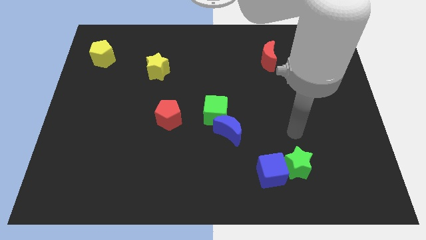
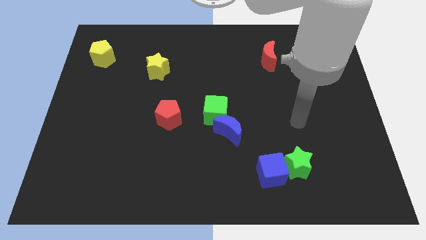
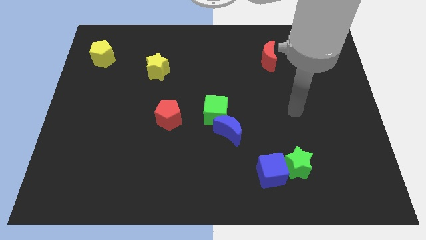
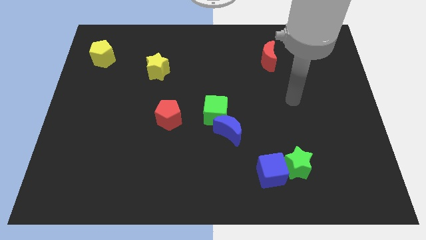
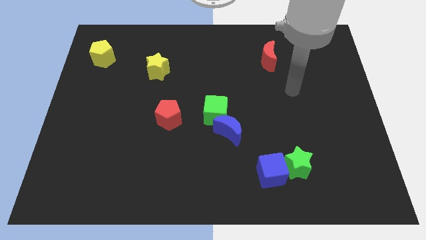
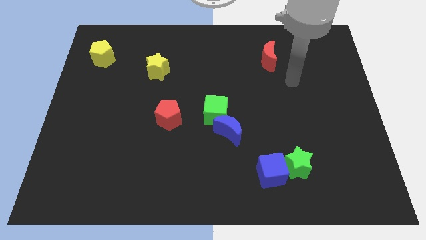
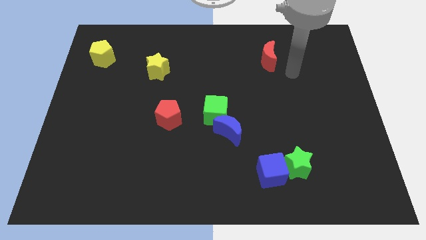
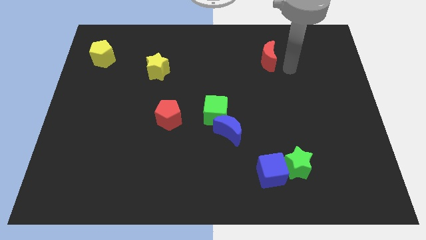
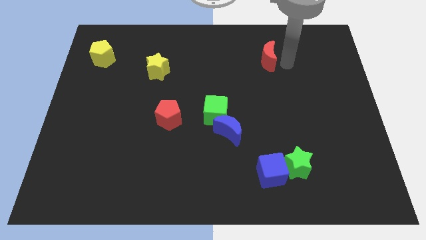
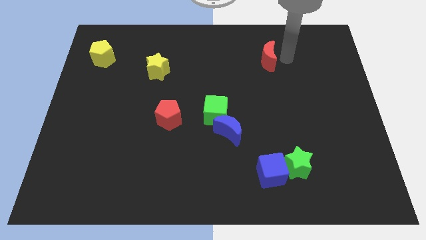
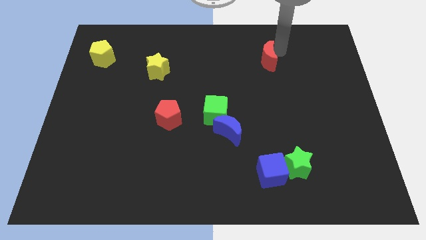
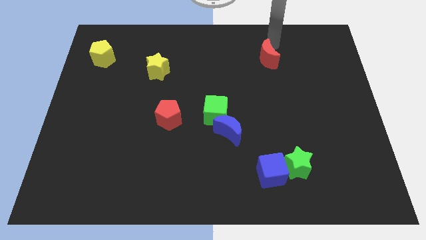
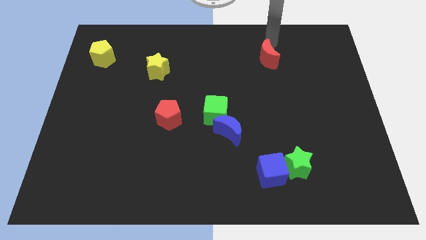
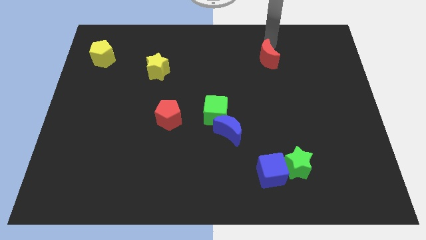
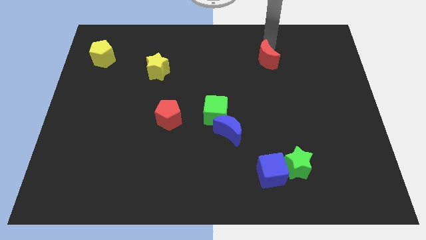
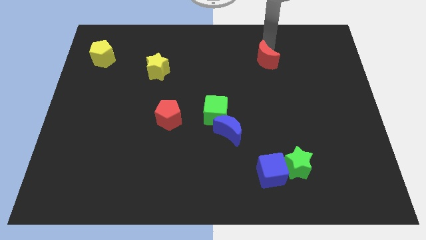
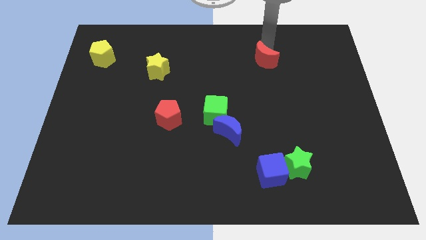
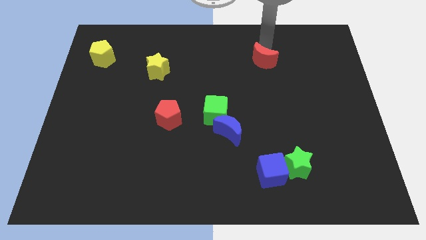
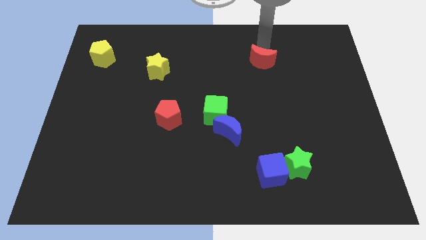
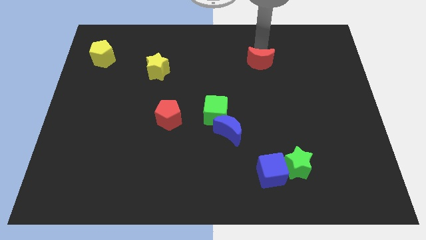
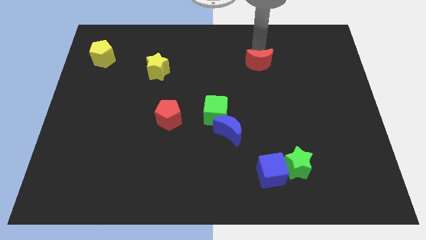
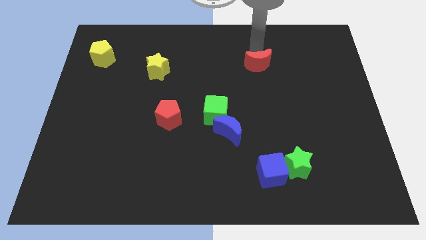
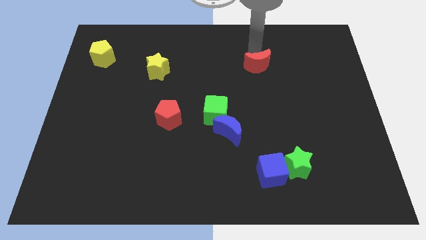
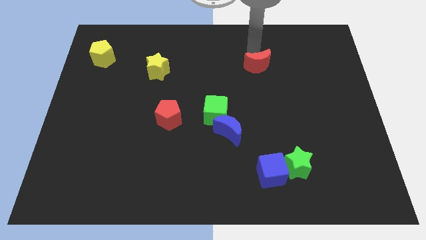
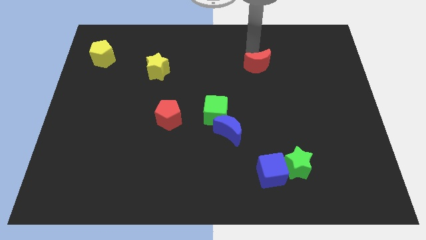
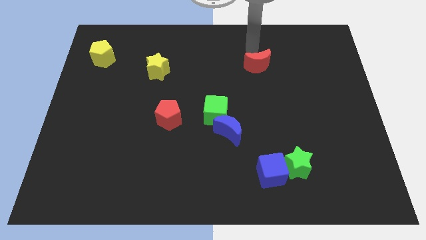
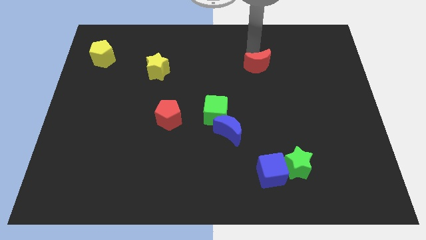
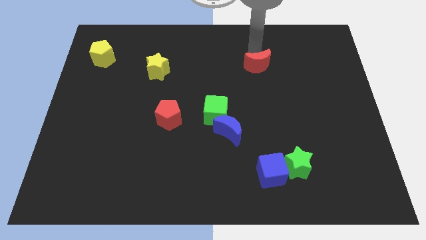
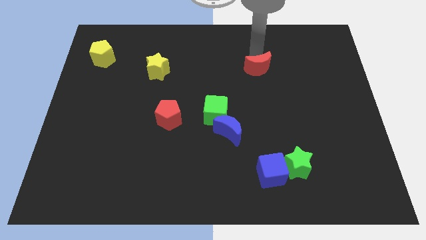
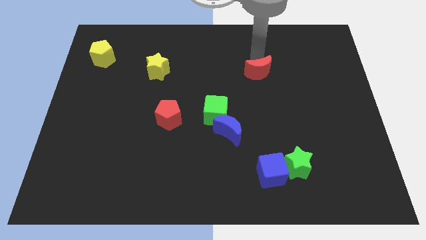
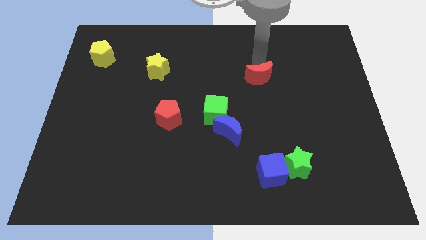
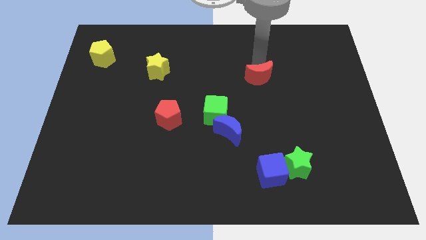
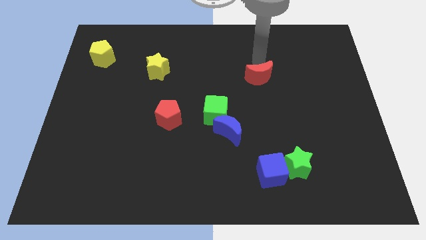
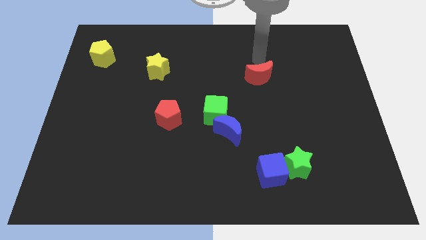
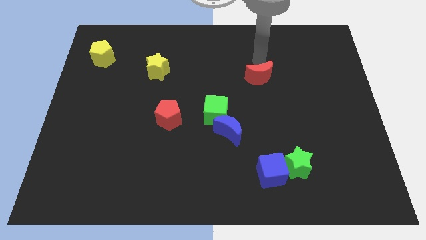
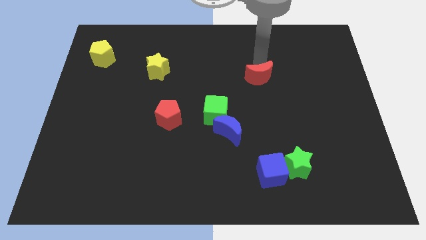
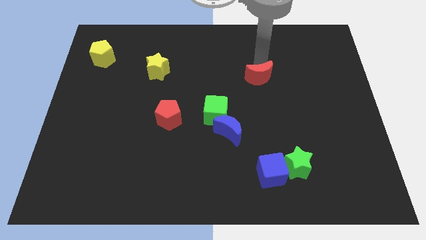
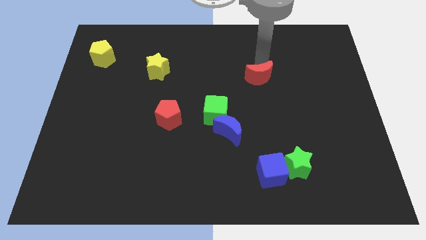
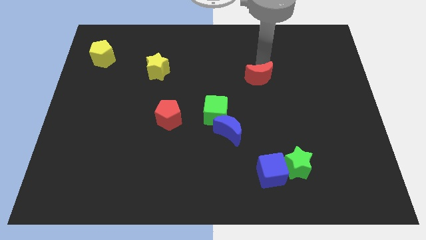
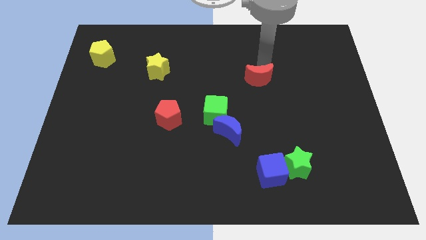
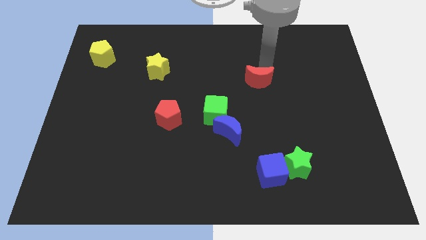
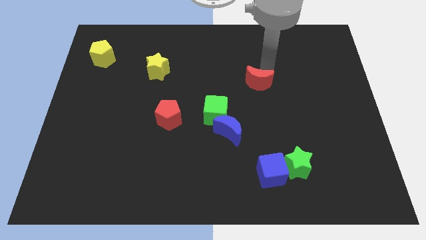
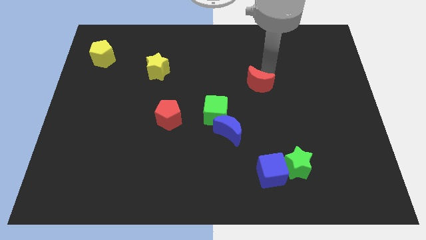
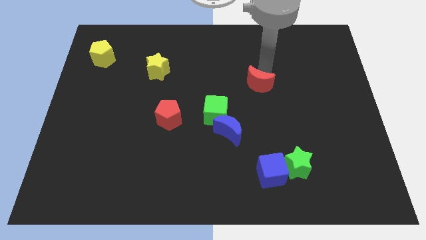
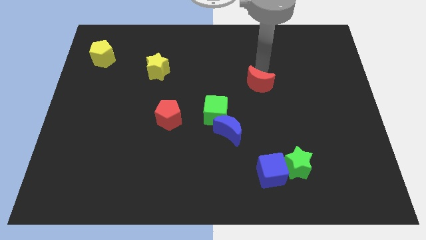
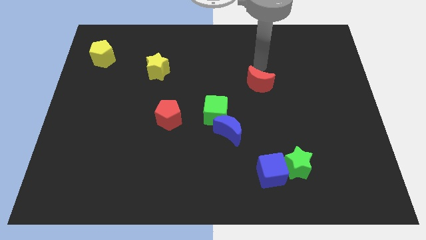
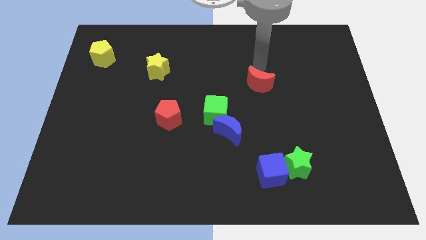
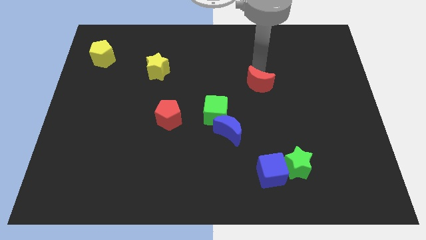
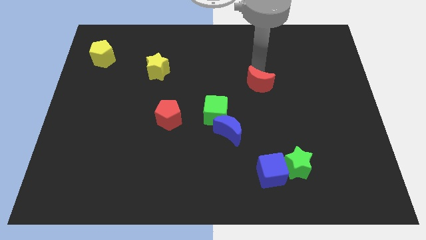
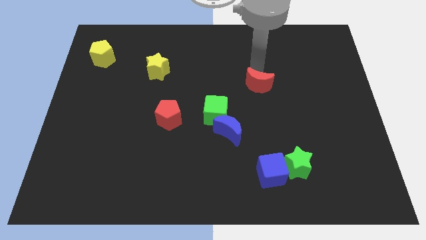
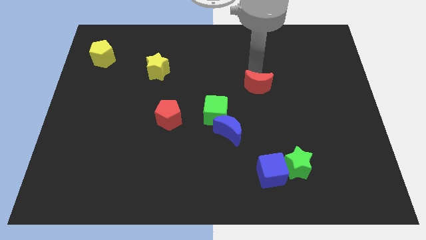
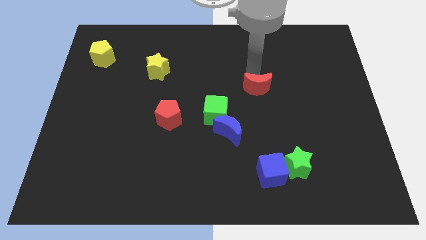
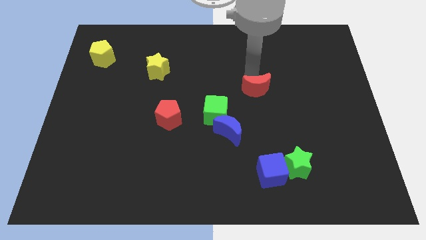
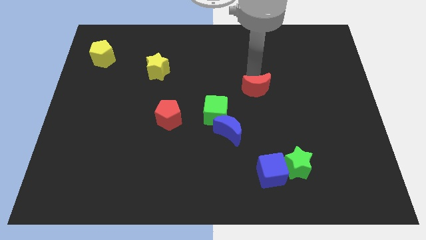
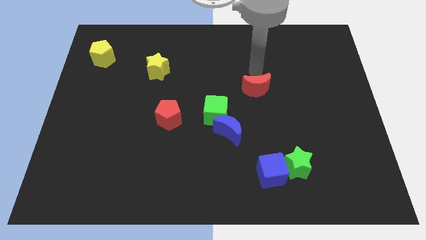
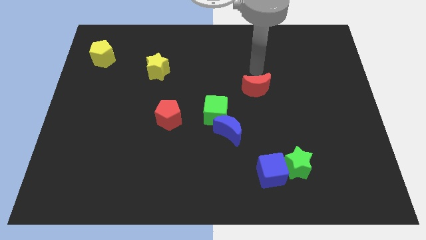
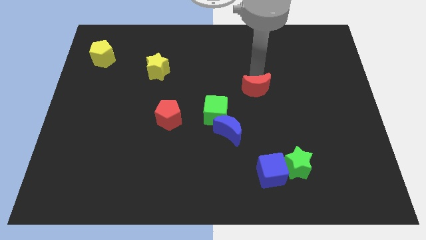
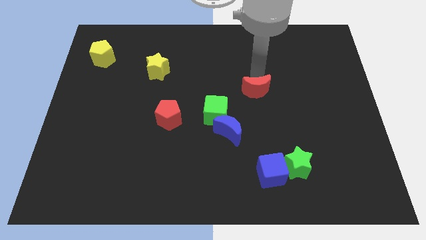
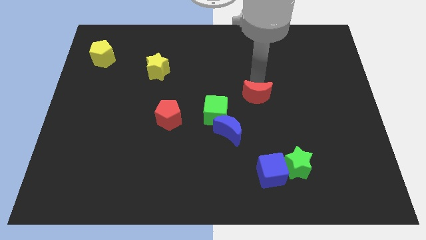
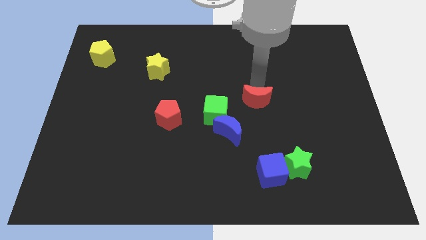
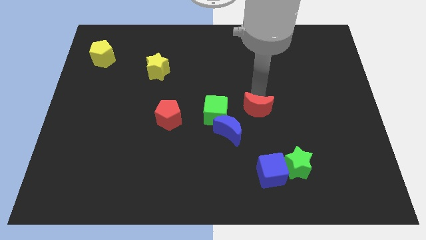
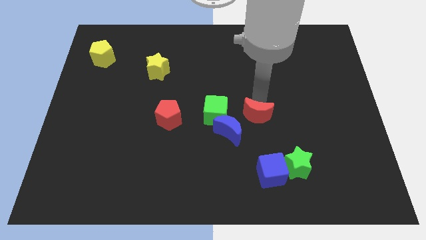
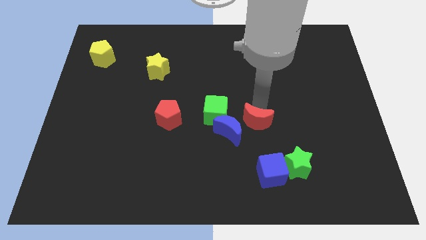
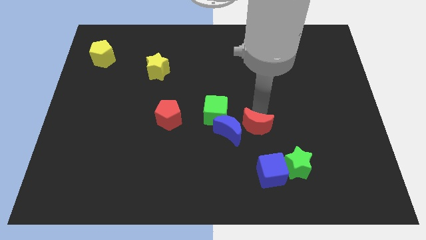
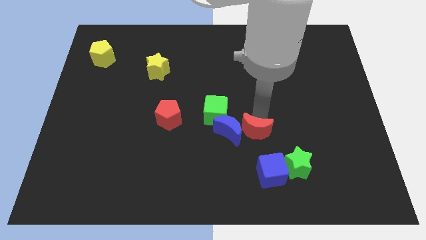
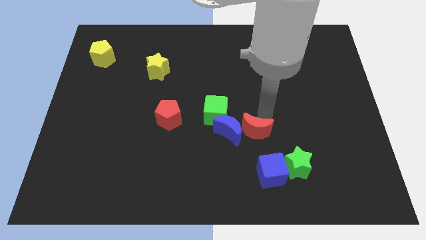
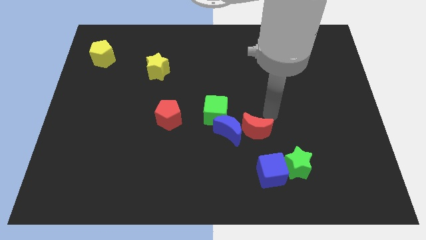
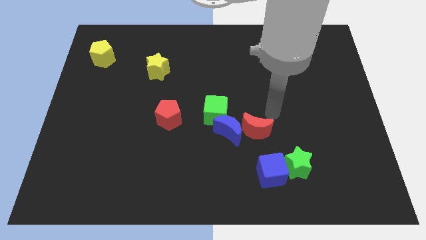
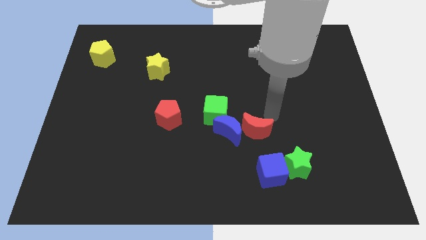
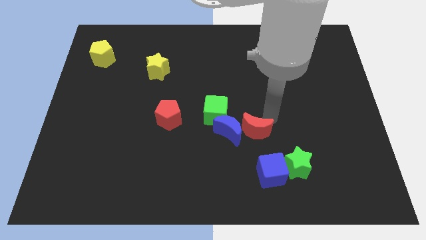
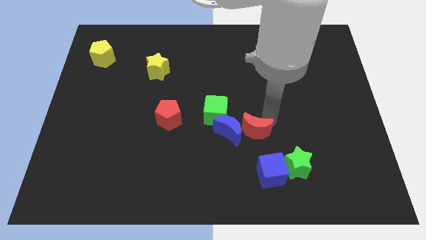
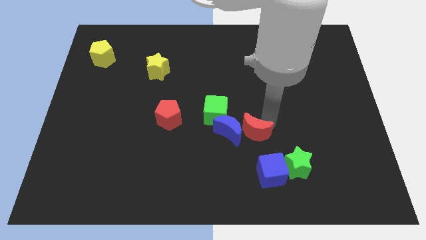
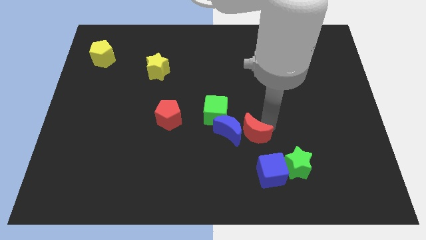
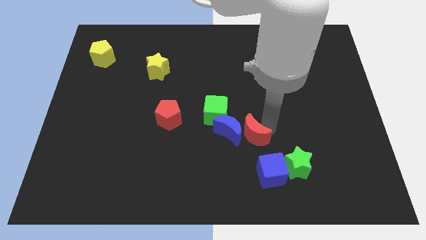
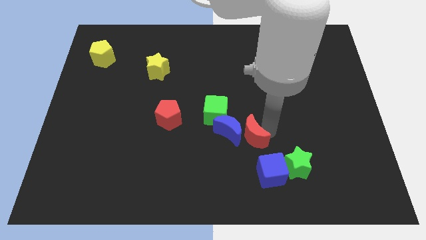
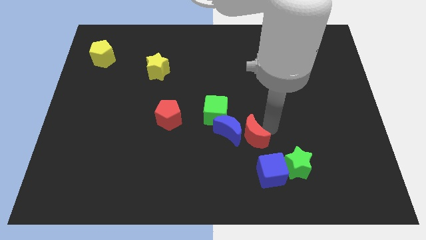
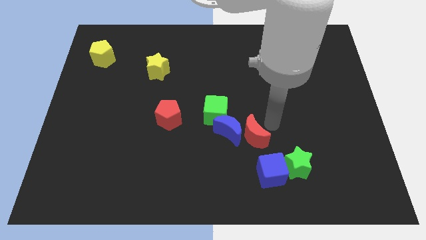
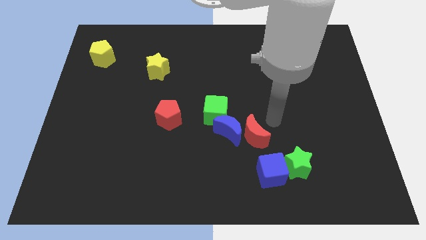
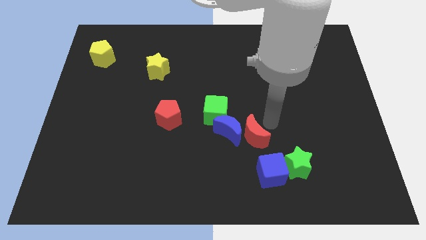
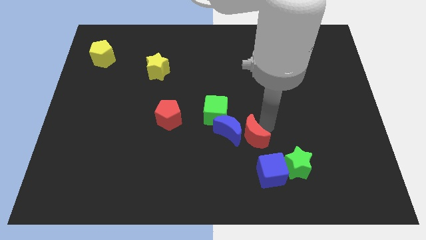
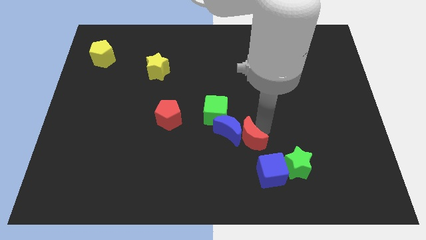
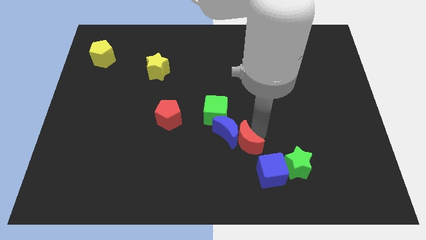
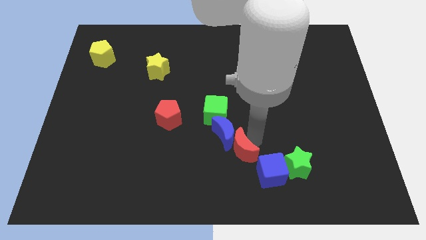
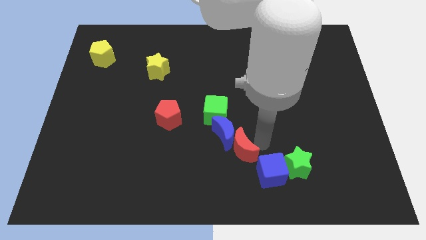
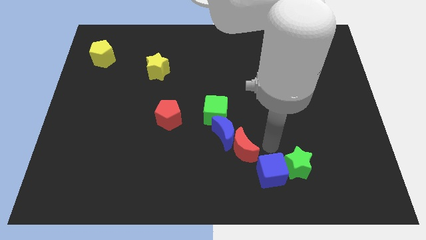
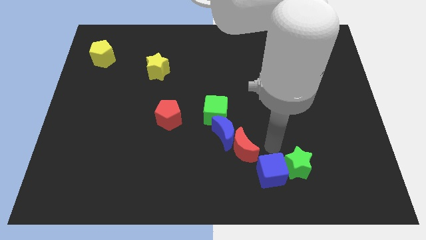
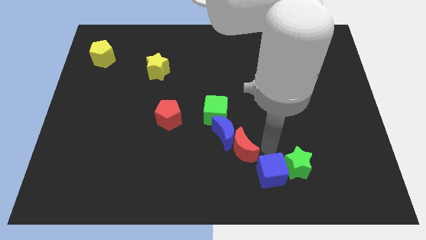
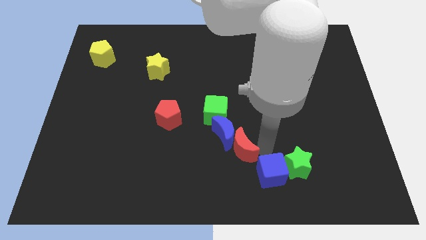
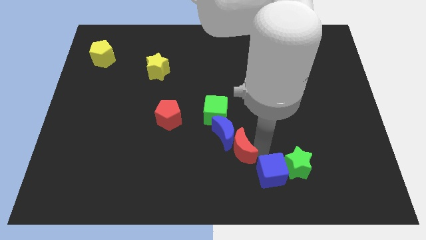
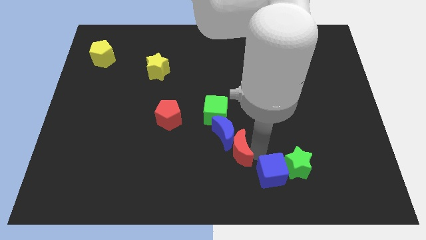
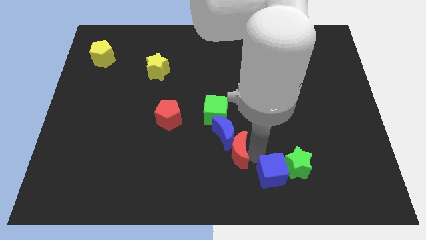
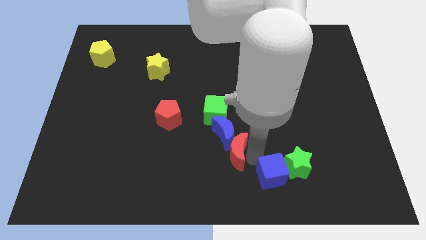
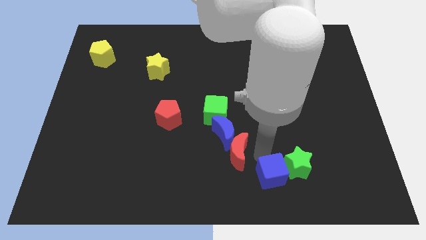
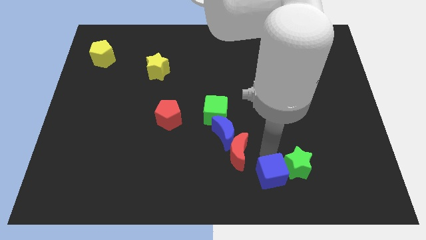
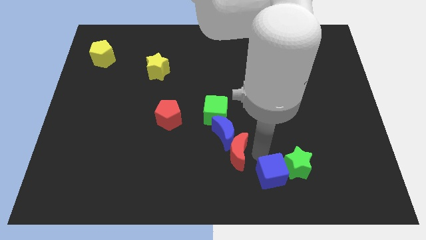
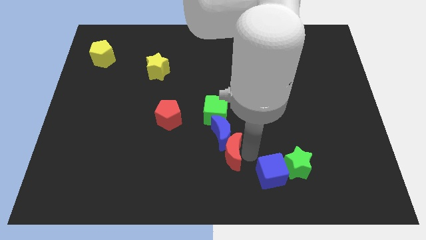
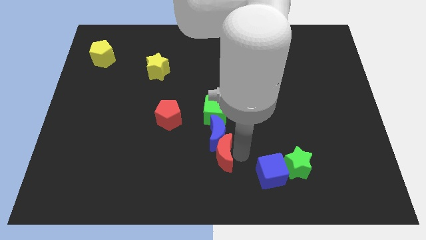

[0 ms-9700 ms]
move the red moon to the bottom left of the blue moon
